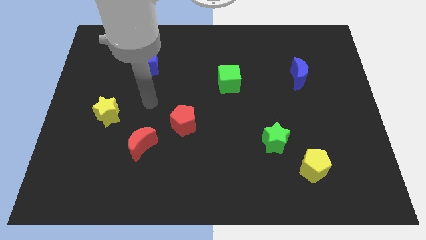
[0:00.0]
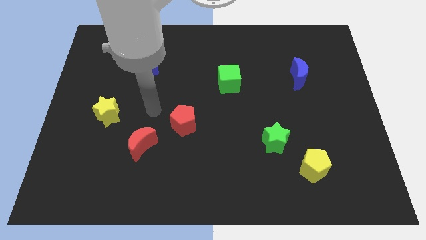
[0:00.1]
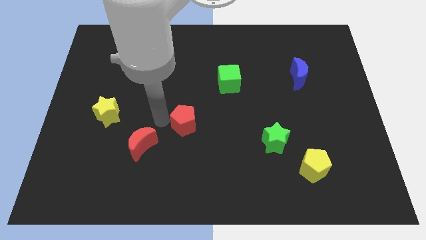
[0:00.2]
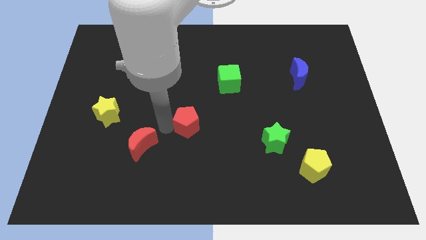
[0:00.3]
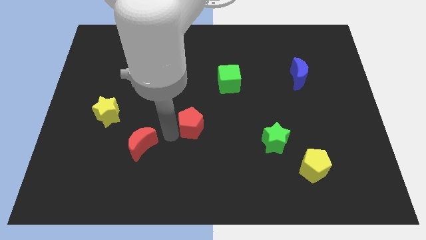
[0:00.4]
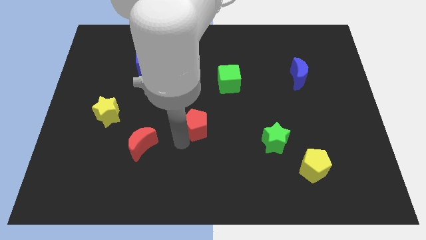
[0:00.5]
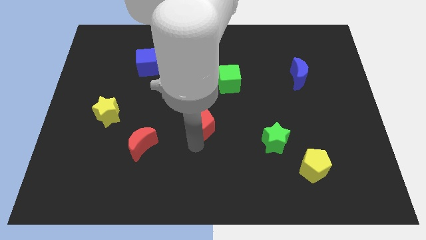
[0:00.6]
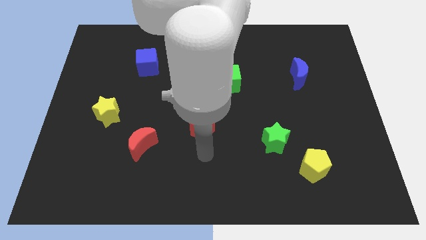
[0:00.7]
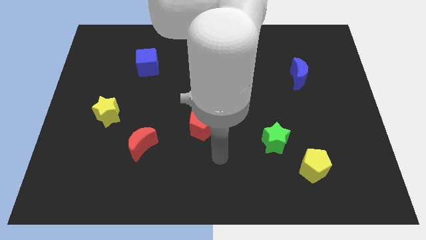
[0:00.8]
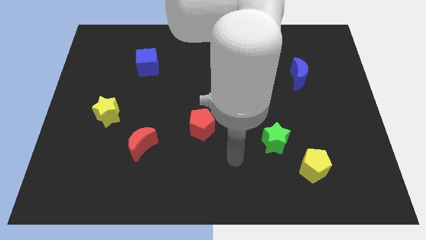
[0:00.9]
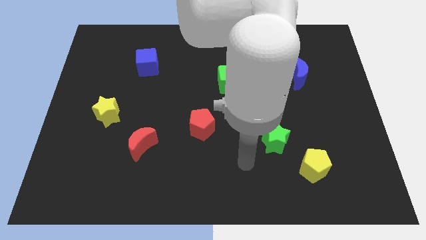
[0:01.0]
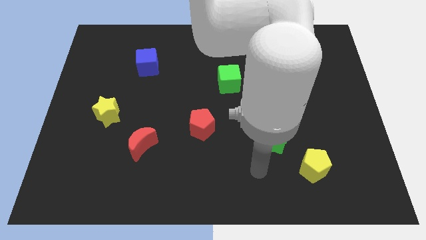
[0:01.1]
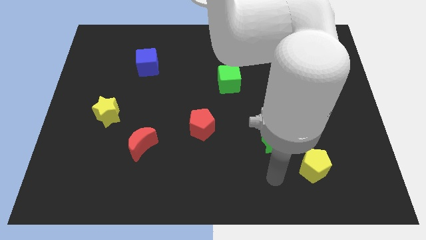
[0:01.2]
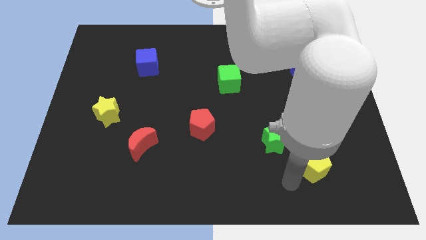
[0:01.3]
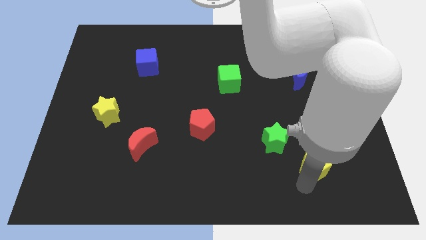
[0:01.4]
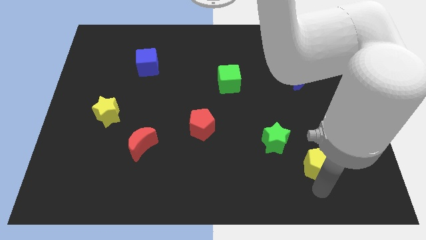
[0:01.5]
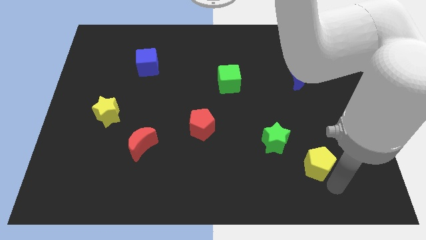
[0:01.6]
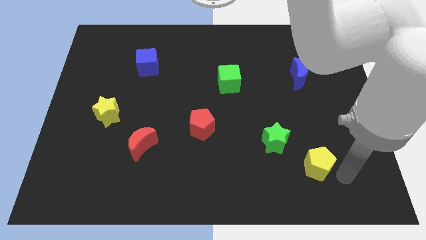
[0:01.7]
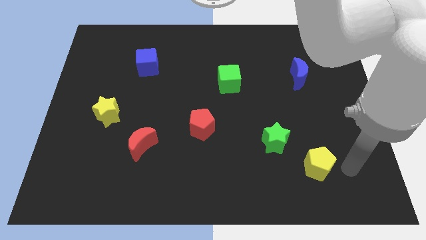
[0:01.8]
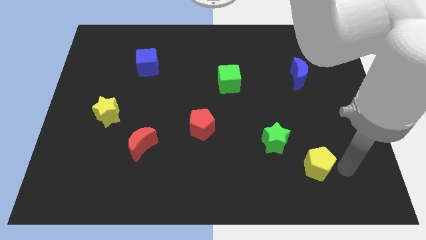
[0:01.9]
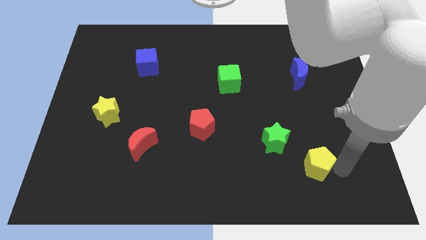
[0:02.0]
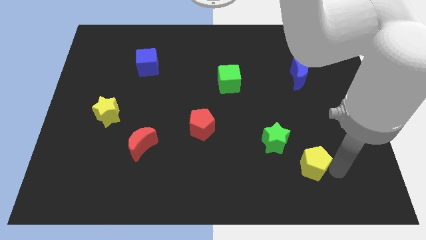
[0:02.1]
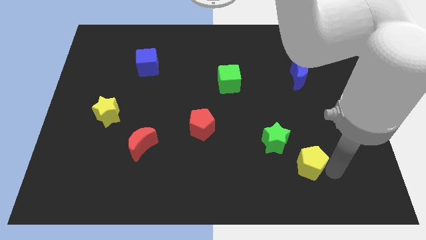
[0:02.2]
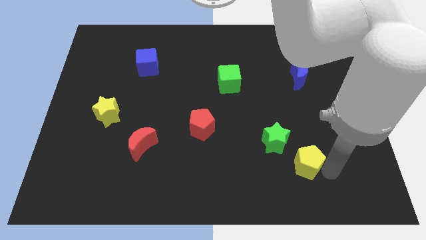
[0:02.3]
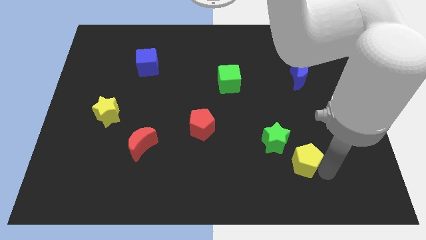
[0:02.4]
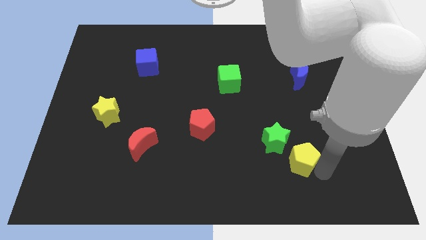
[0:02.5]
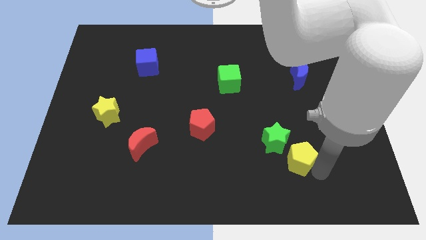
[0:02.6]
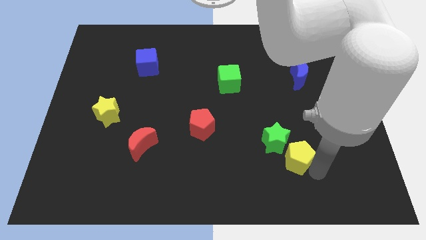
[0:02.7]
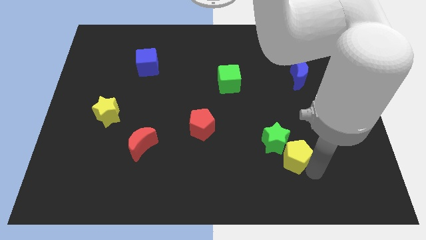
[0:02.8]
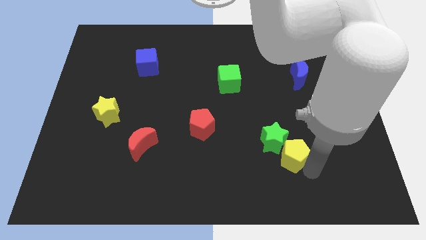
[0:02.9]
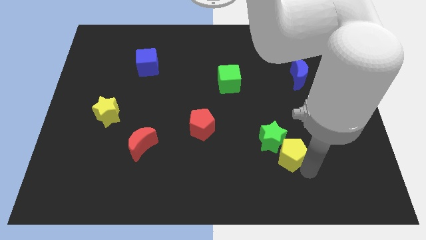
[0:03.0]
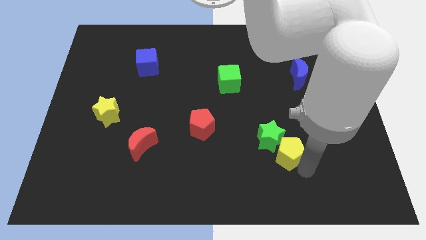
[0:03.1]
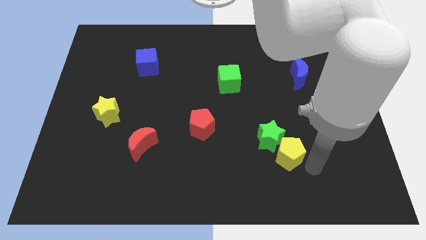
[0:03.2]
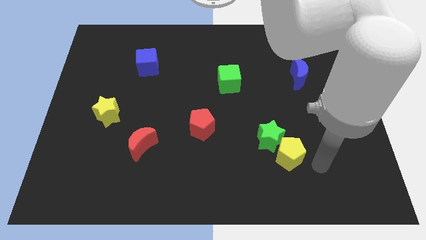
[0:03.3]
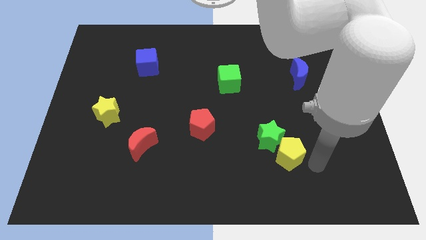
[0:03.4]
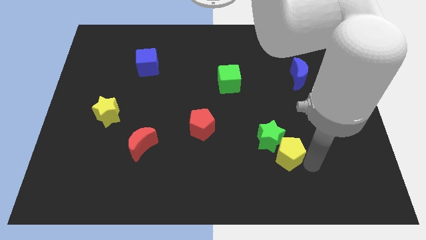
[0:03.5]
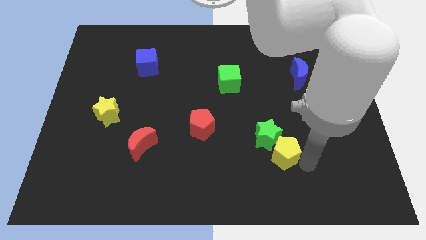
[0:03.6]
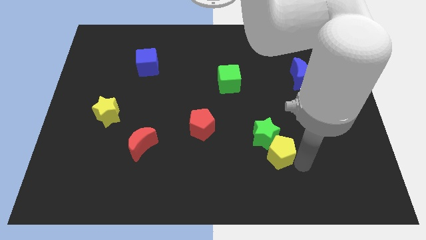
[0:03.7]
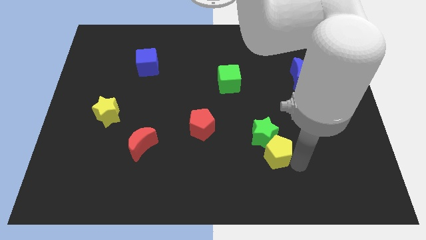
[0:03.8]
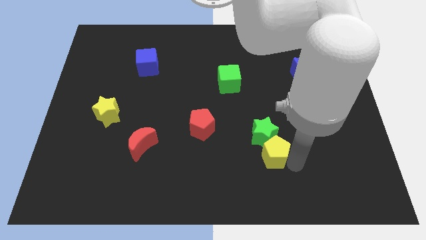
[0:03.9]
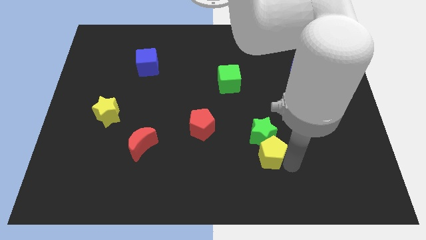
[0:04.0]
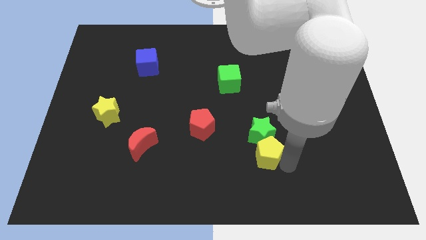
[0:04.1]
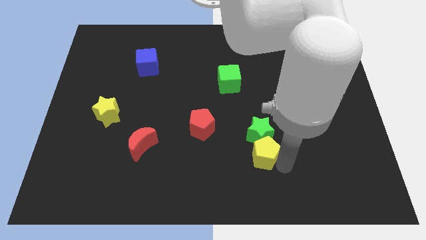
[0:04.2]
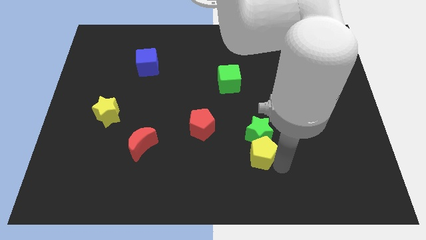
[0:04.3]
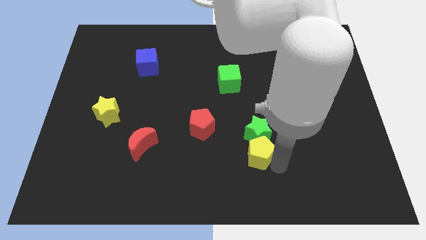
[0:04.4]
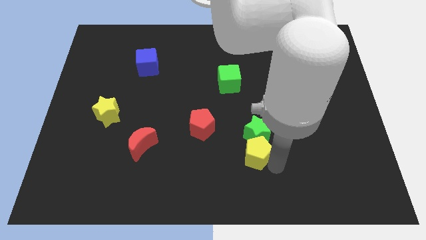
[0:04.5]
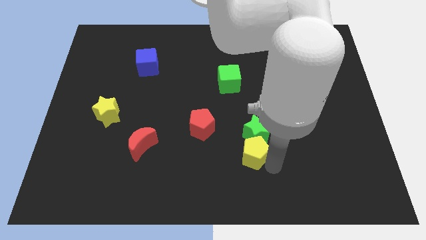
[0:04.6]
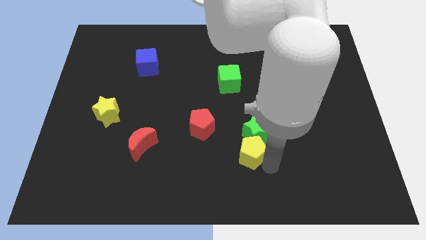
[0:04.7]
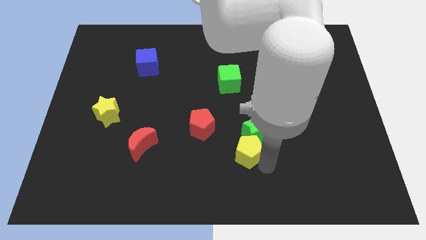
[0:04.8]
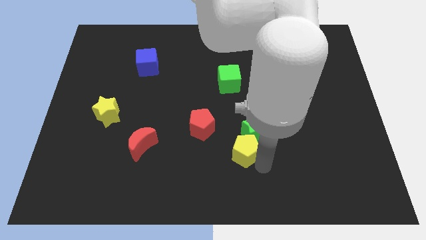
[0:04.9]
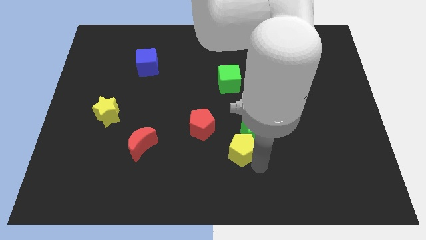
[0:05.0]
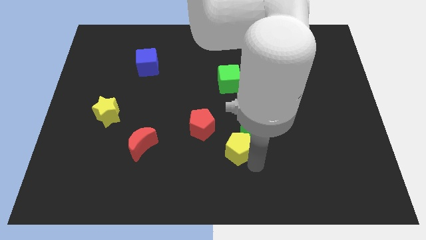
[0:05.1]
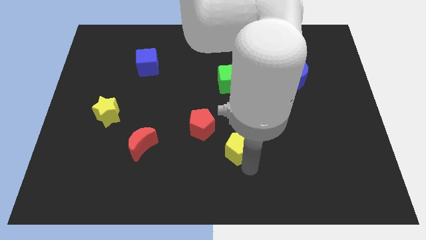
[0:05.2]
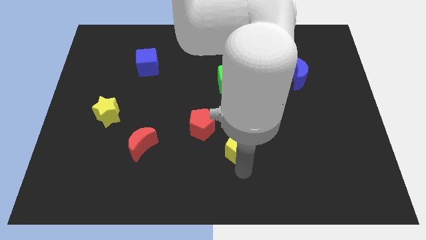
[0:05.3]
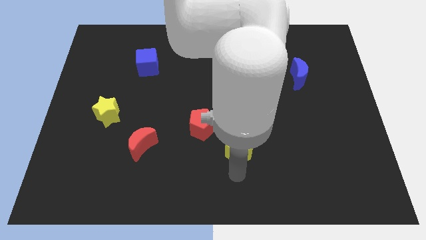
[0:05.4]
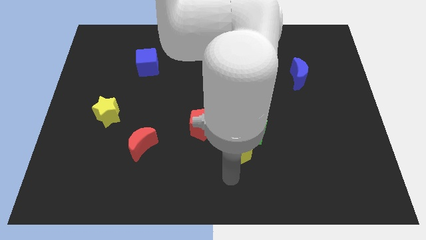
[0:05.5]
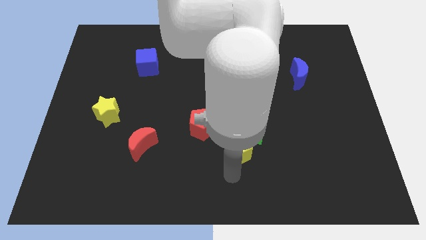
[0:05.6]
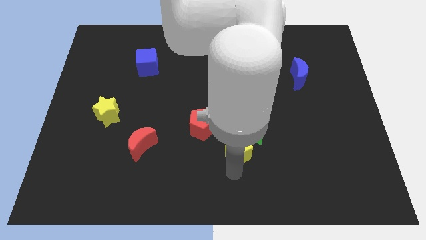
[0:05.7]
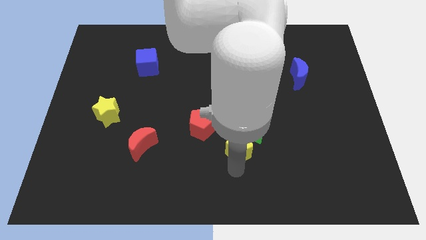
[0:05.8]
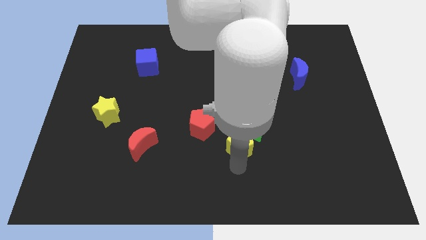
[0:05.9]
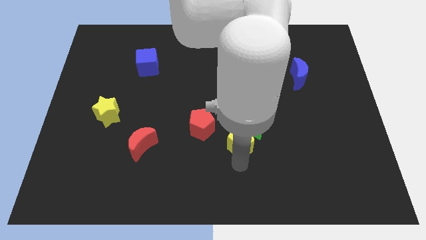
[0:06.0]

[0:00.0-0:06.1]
move the yellow pentagon just right of the red pentagon

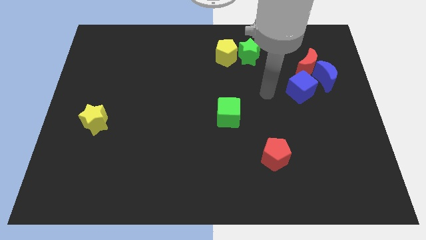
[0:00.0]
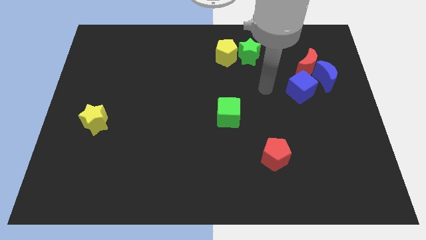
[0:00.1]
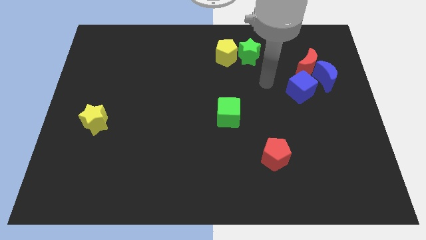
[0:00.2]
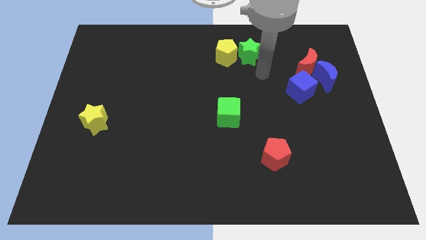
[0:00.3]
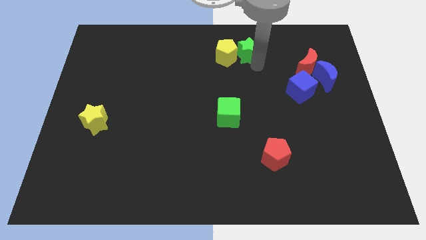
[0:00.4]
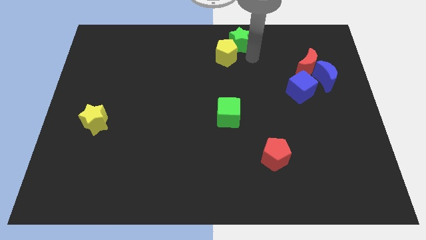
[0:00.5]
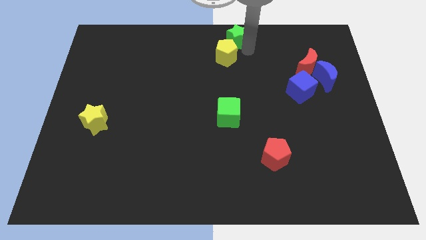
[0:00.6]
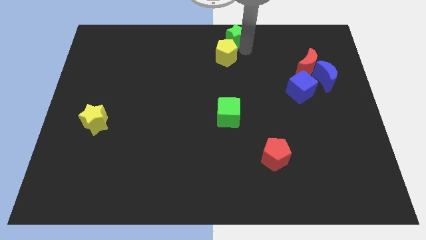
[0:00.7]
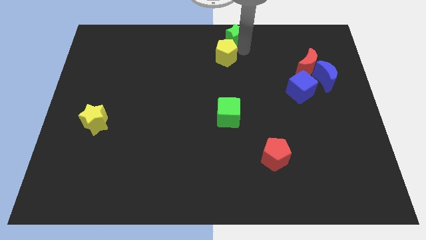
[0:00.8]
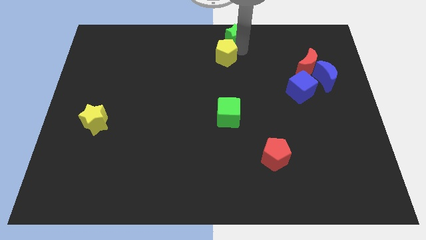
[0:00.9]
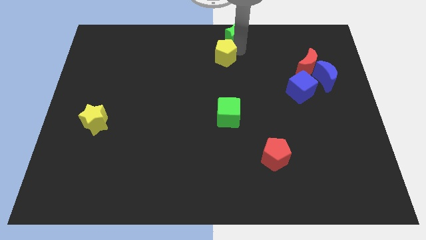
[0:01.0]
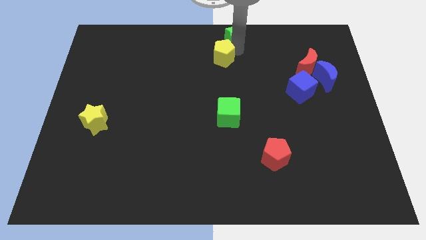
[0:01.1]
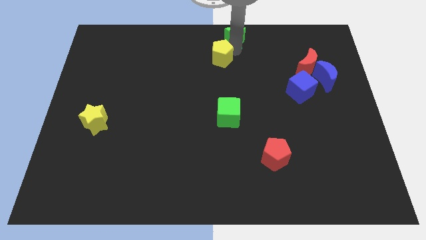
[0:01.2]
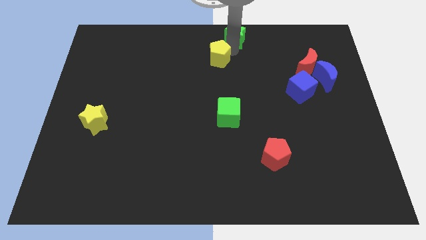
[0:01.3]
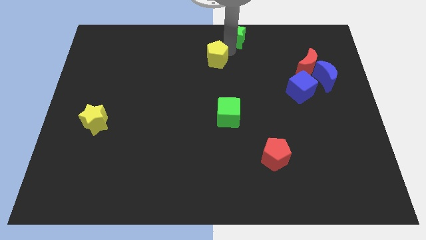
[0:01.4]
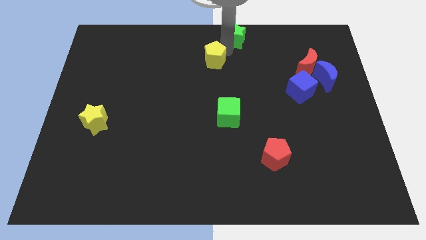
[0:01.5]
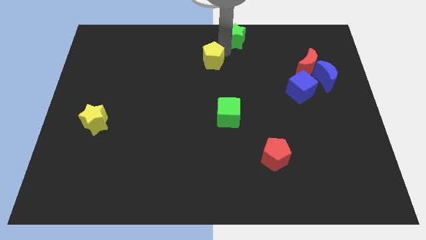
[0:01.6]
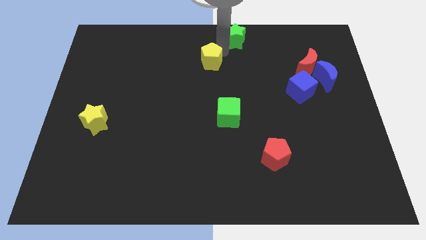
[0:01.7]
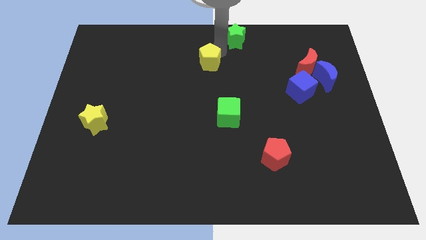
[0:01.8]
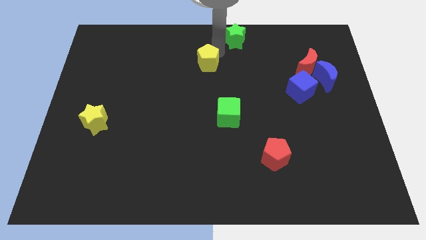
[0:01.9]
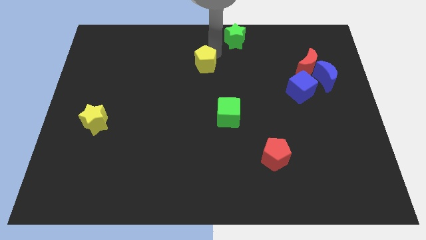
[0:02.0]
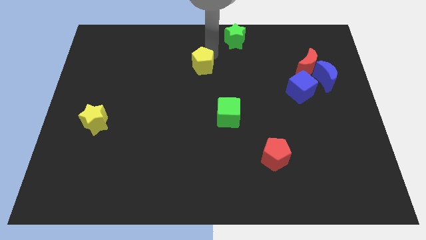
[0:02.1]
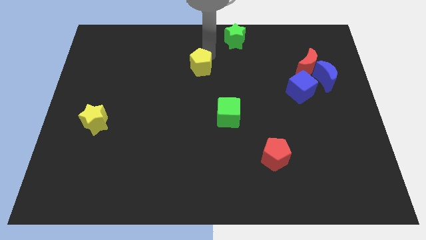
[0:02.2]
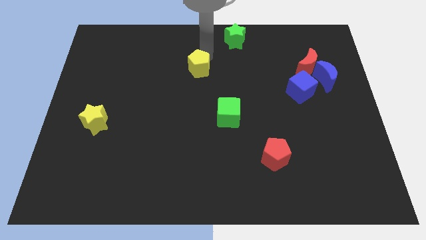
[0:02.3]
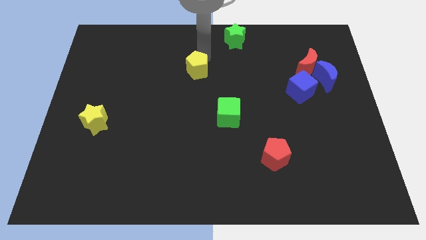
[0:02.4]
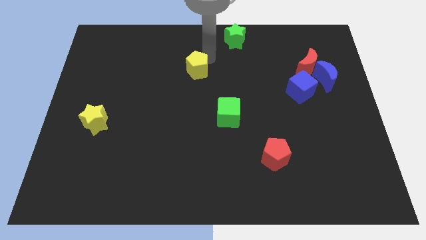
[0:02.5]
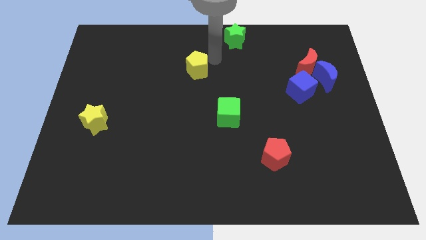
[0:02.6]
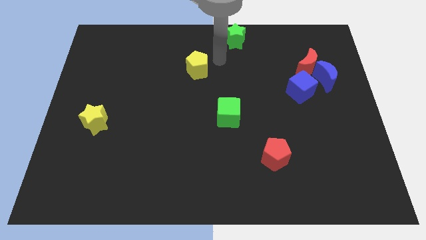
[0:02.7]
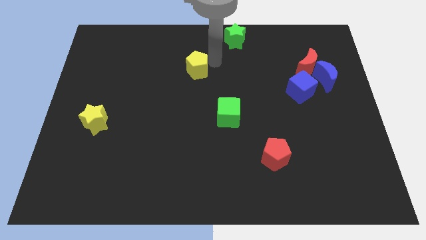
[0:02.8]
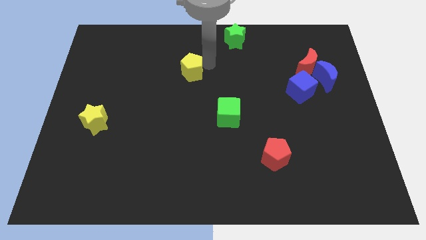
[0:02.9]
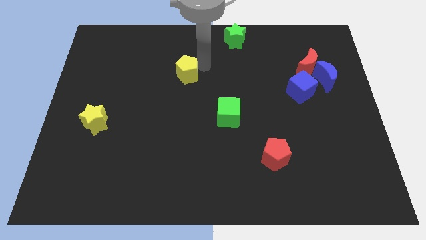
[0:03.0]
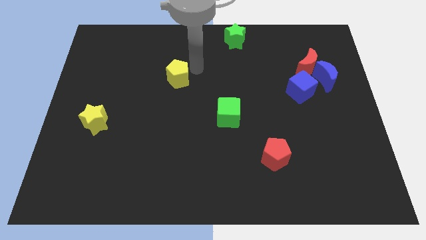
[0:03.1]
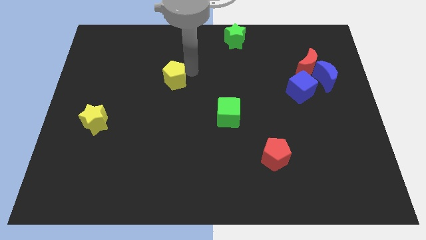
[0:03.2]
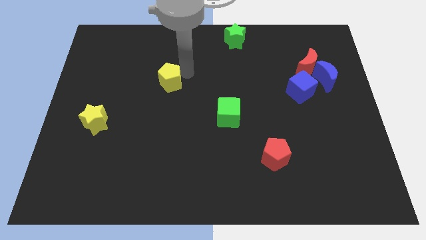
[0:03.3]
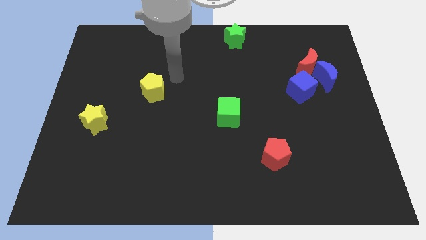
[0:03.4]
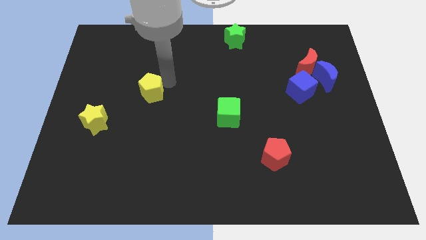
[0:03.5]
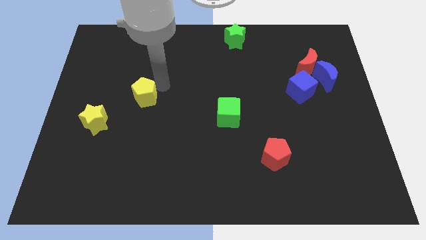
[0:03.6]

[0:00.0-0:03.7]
move the yellow pentagon to the top right side of the yellow star
